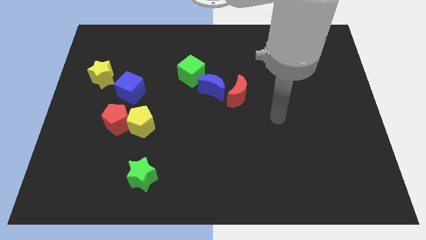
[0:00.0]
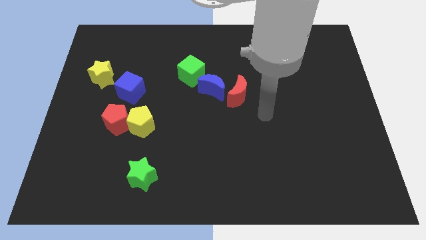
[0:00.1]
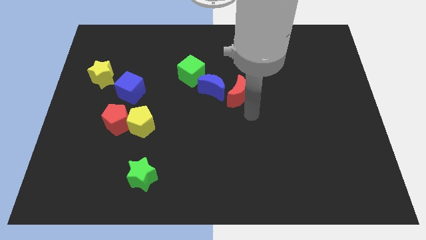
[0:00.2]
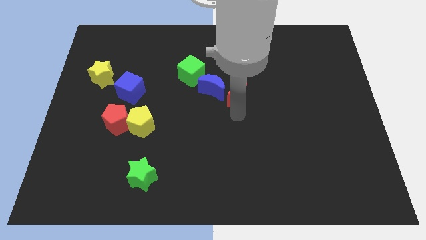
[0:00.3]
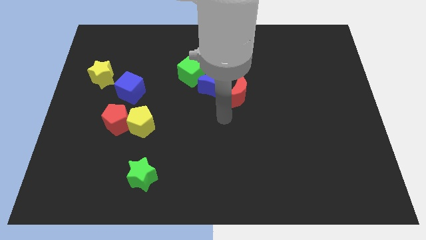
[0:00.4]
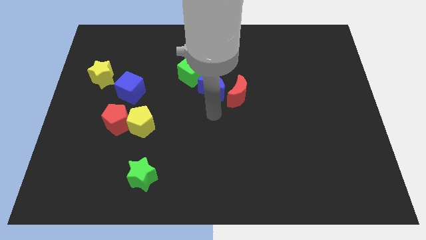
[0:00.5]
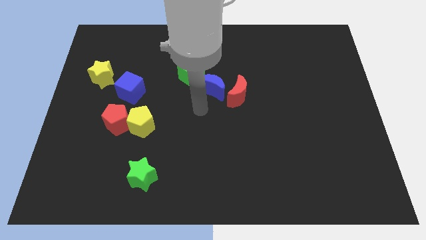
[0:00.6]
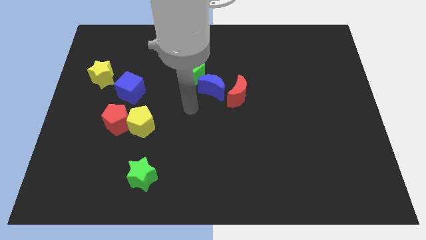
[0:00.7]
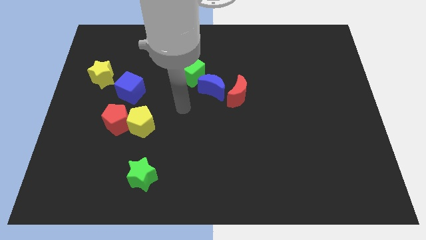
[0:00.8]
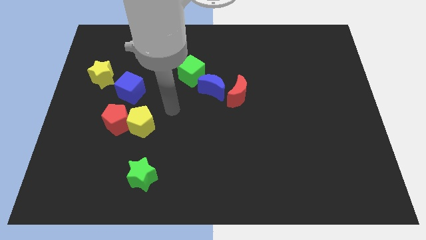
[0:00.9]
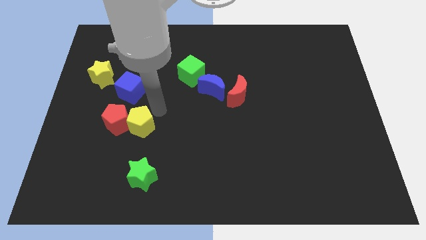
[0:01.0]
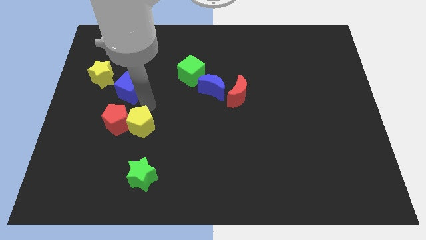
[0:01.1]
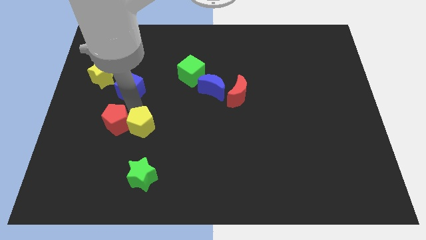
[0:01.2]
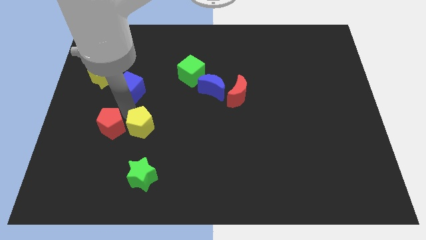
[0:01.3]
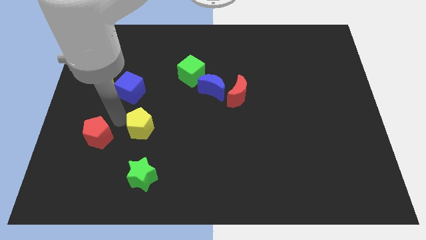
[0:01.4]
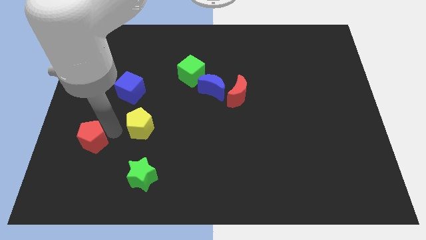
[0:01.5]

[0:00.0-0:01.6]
move the yellow pentagon away from the red pentagon

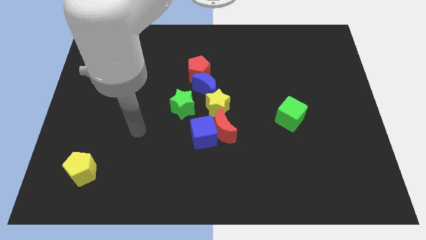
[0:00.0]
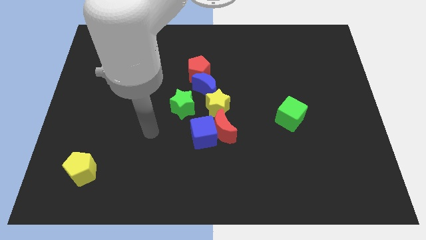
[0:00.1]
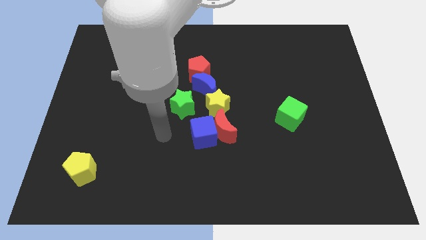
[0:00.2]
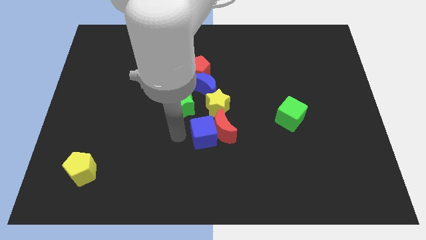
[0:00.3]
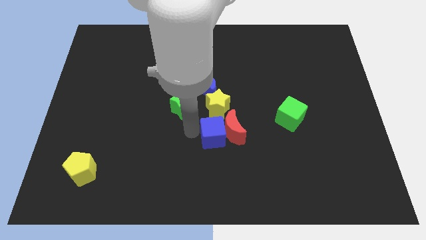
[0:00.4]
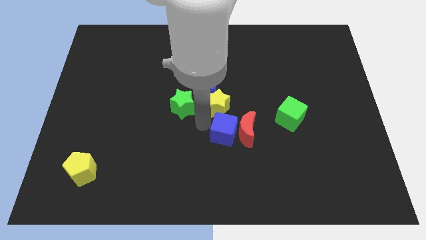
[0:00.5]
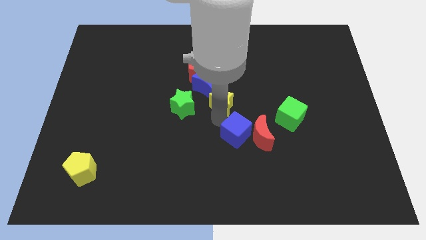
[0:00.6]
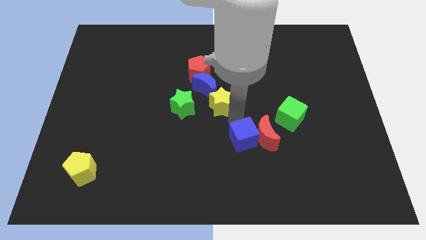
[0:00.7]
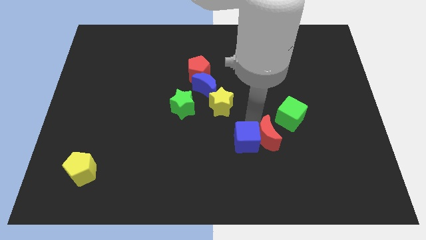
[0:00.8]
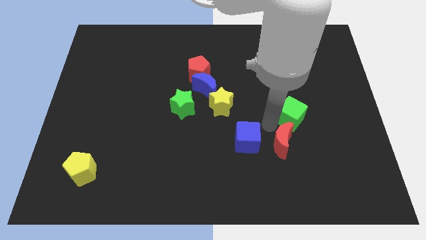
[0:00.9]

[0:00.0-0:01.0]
pull the red moon apart from the blue cube and yellow star

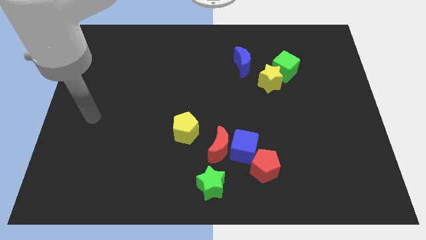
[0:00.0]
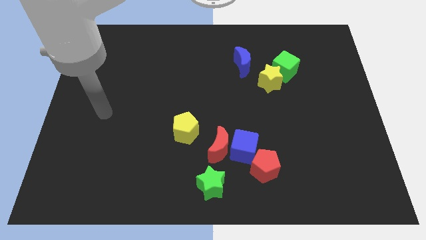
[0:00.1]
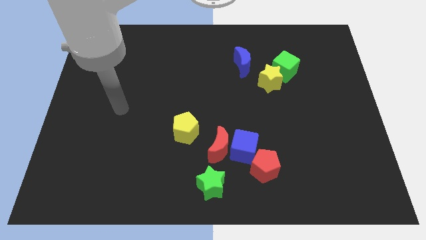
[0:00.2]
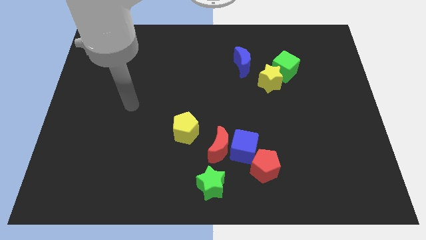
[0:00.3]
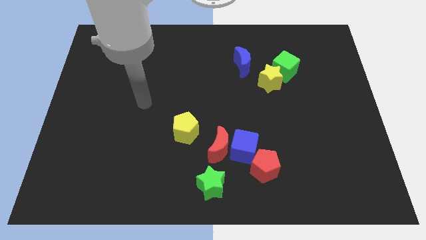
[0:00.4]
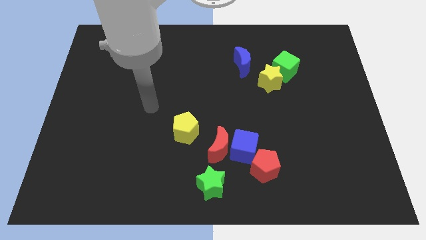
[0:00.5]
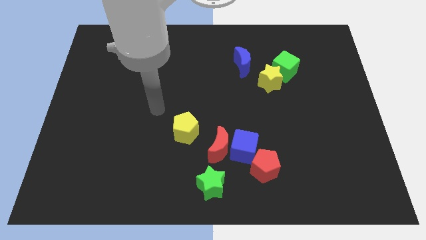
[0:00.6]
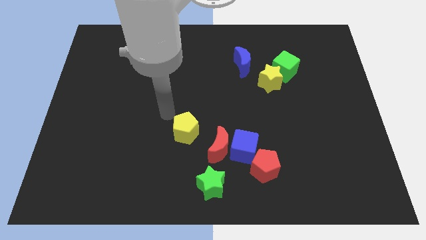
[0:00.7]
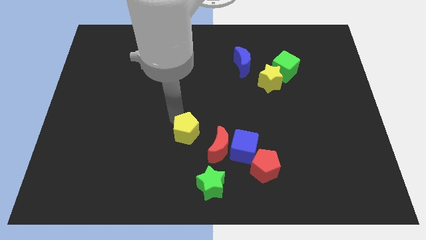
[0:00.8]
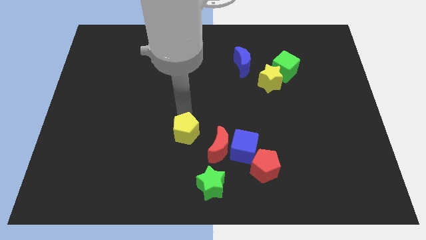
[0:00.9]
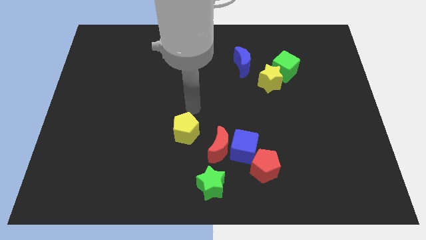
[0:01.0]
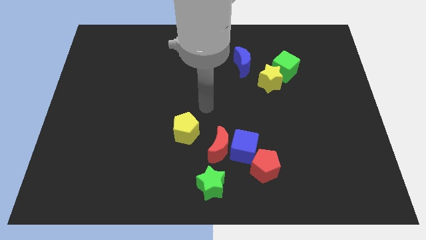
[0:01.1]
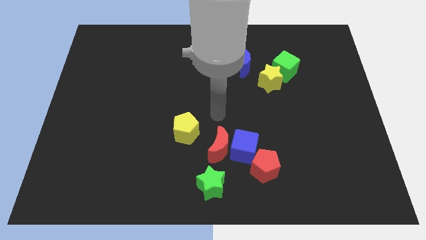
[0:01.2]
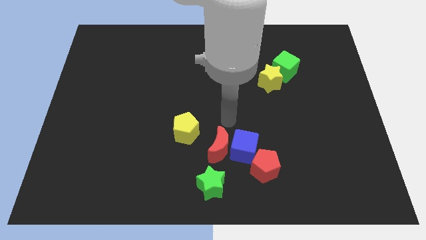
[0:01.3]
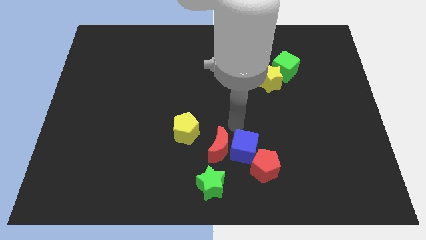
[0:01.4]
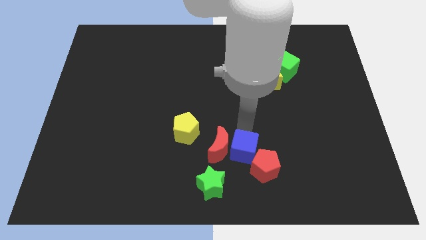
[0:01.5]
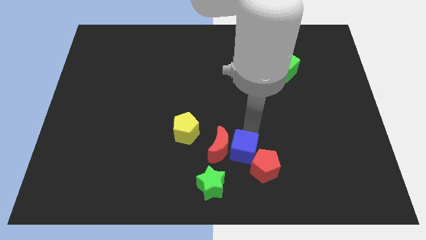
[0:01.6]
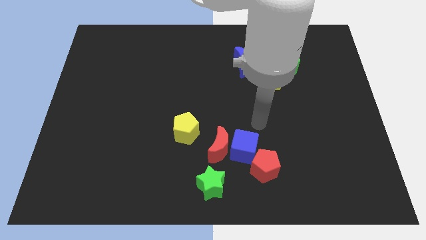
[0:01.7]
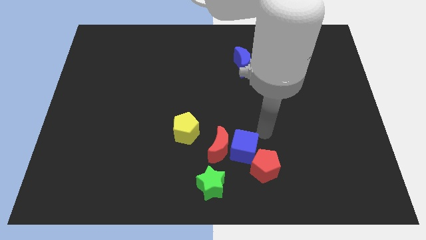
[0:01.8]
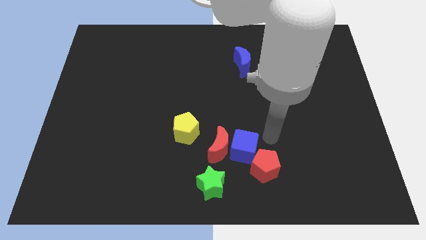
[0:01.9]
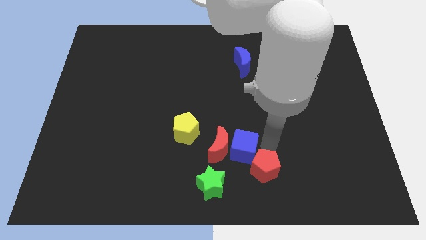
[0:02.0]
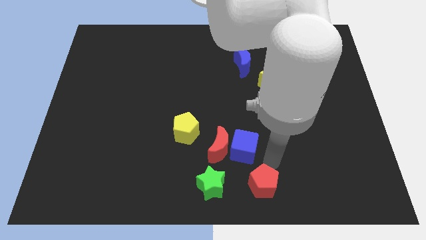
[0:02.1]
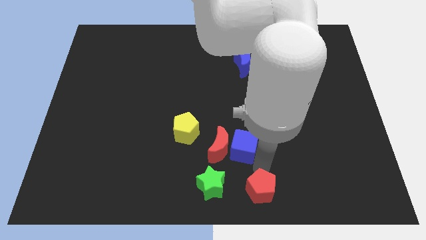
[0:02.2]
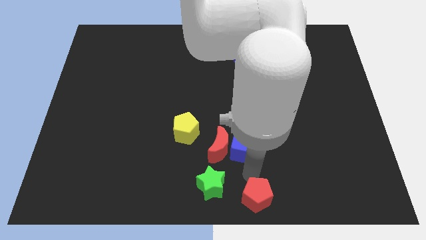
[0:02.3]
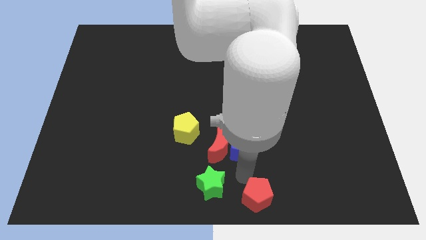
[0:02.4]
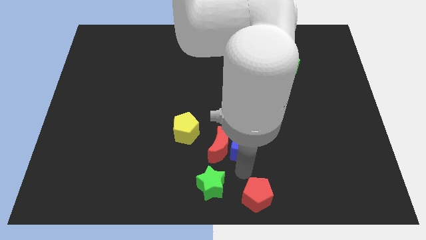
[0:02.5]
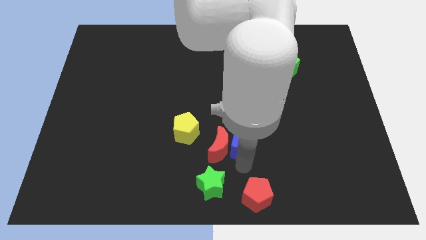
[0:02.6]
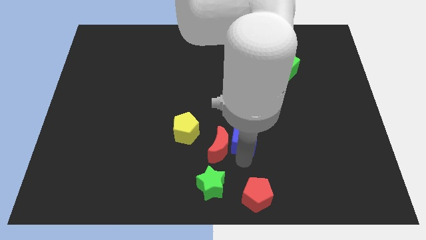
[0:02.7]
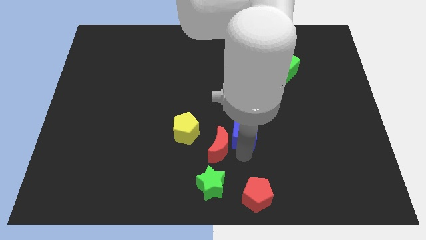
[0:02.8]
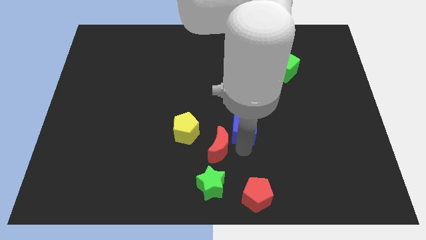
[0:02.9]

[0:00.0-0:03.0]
separate the blue cube from the red moon and red pentagon

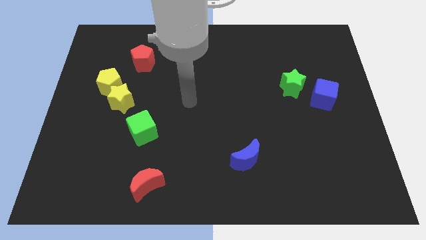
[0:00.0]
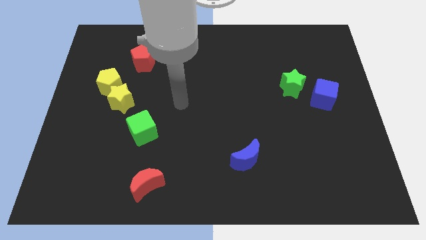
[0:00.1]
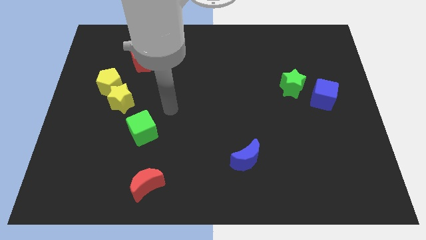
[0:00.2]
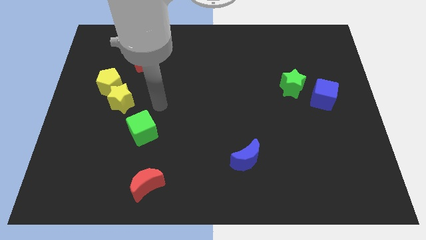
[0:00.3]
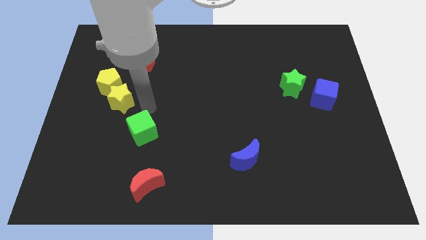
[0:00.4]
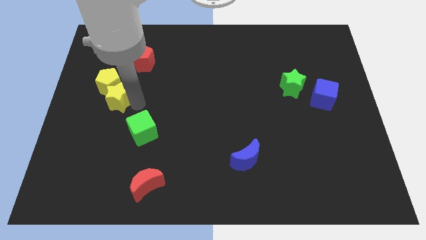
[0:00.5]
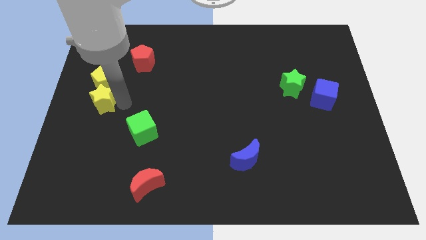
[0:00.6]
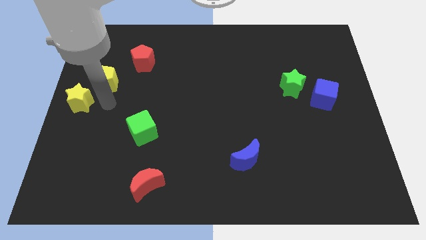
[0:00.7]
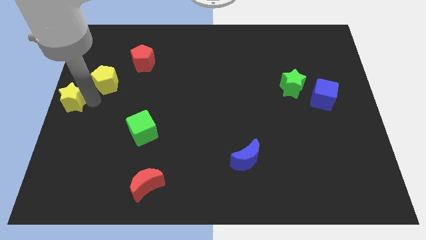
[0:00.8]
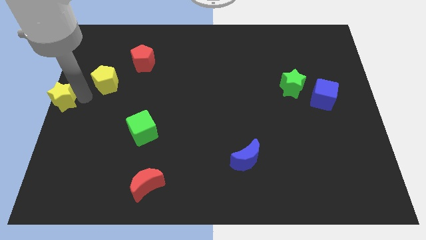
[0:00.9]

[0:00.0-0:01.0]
separate the yellow pentagon from the yellow star

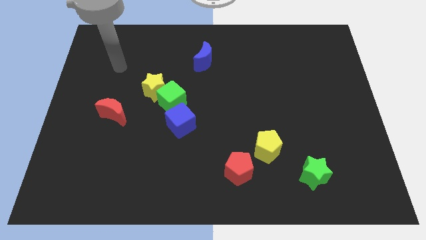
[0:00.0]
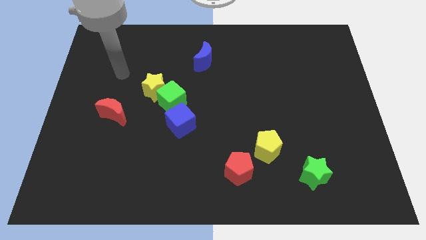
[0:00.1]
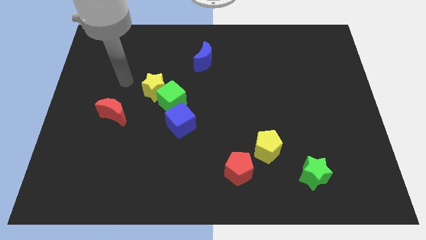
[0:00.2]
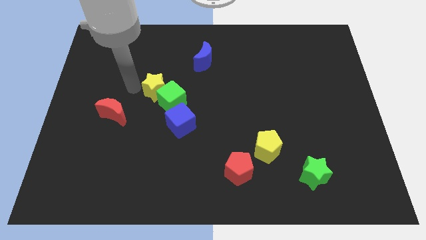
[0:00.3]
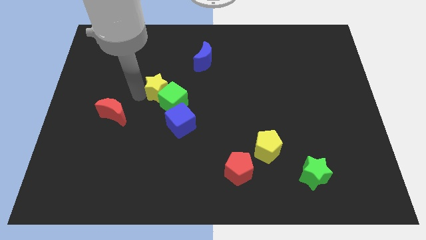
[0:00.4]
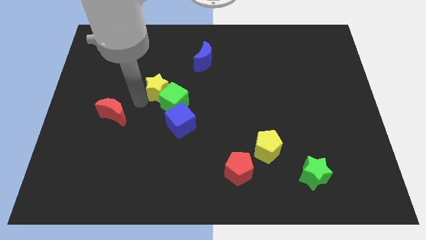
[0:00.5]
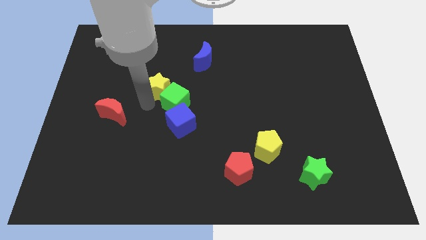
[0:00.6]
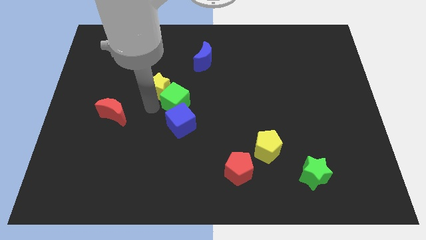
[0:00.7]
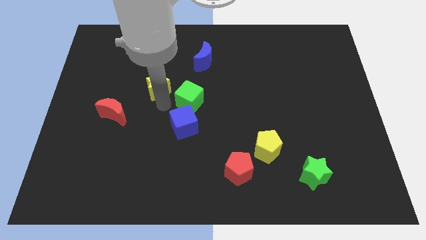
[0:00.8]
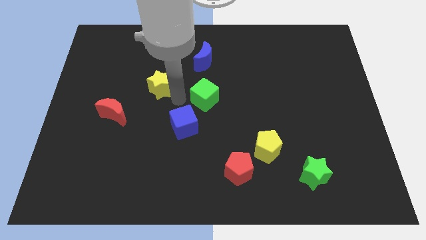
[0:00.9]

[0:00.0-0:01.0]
move the yellow star away from the green cube

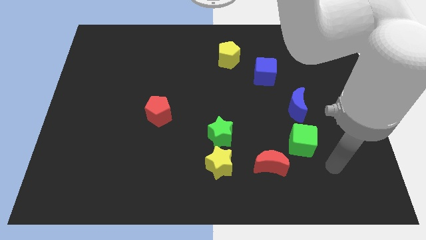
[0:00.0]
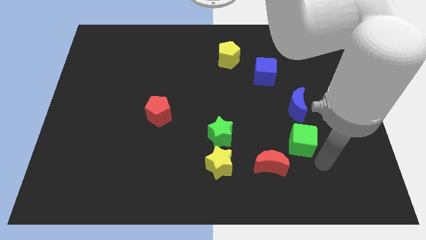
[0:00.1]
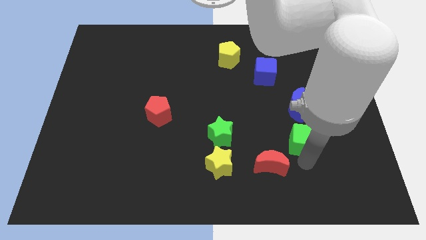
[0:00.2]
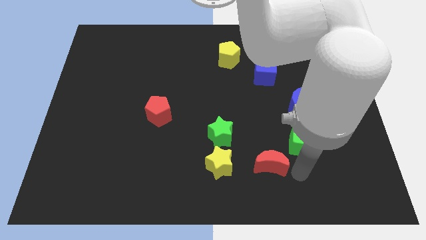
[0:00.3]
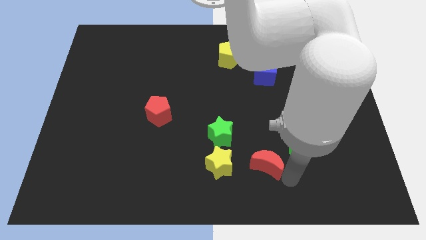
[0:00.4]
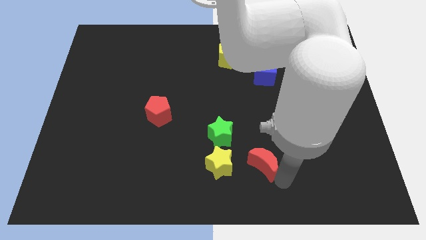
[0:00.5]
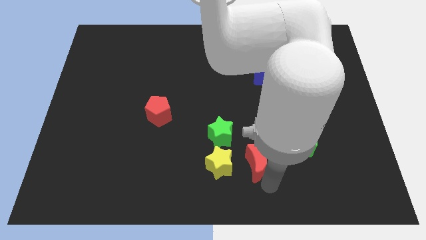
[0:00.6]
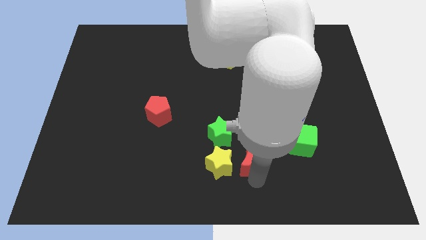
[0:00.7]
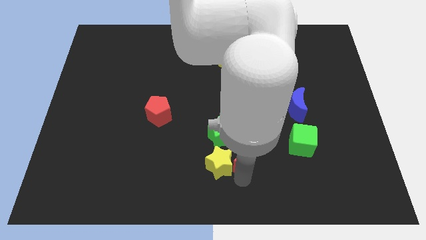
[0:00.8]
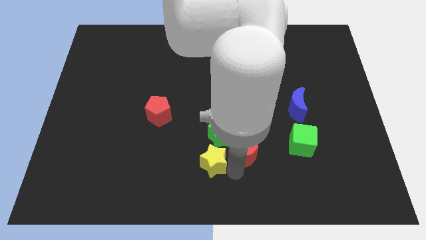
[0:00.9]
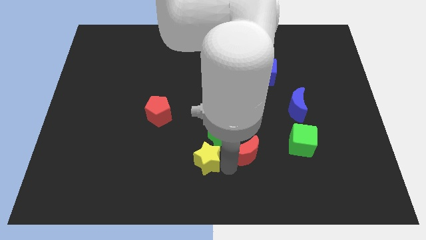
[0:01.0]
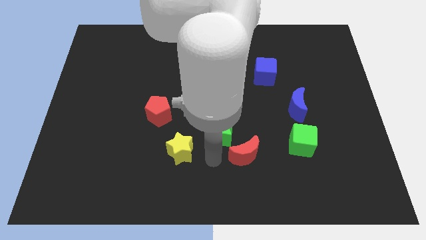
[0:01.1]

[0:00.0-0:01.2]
pull the green star apart from the yellow star

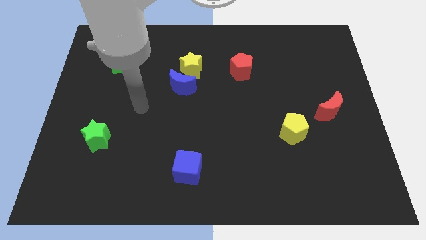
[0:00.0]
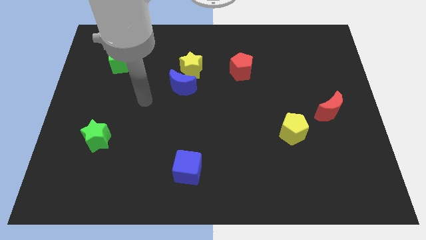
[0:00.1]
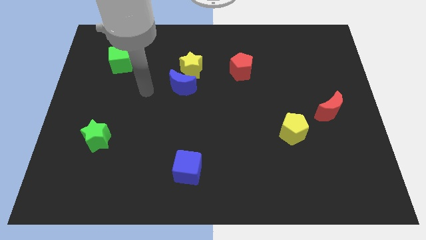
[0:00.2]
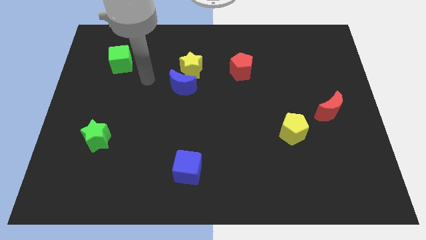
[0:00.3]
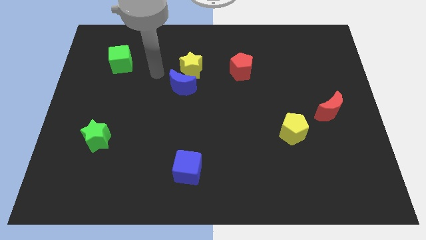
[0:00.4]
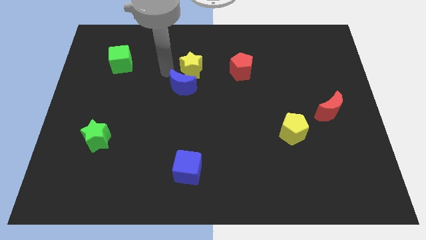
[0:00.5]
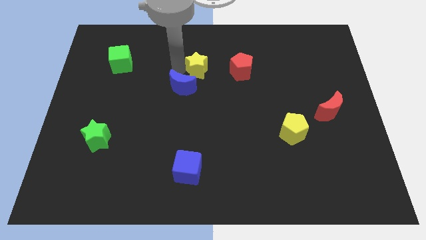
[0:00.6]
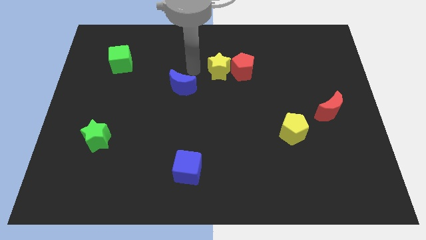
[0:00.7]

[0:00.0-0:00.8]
pull the blue moon apart from the yellow star
